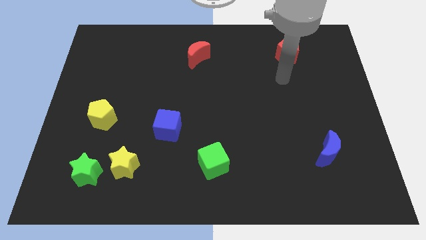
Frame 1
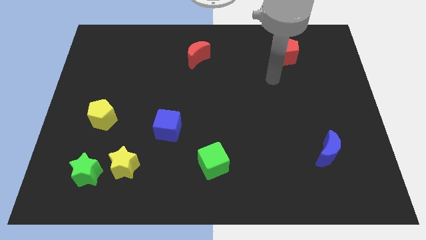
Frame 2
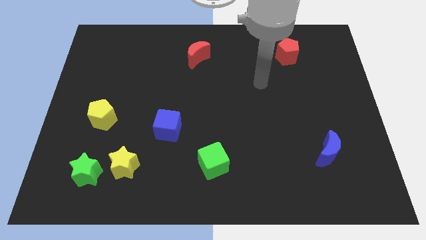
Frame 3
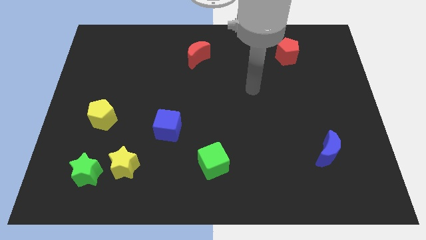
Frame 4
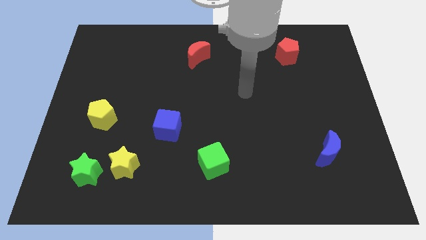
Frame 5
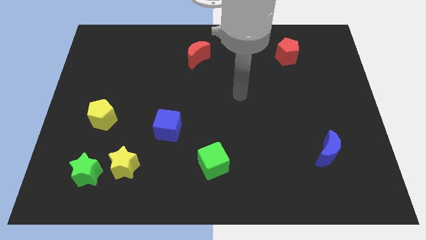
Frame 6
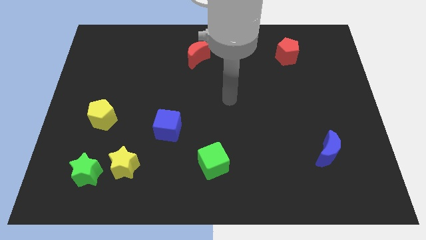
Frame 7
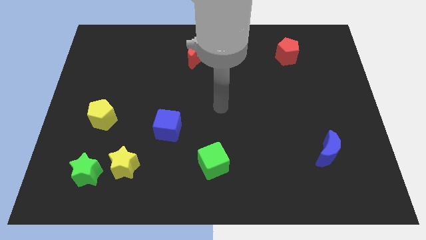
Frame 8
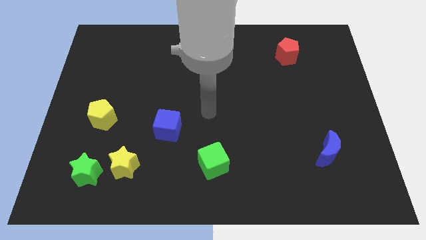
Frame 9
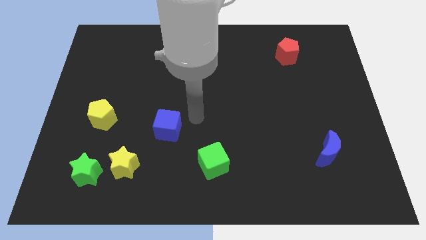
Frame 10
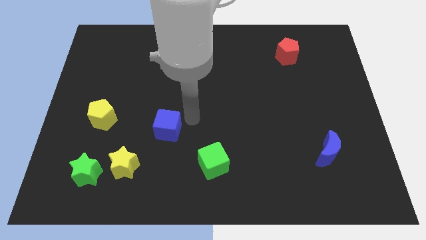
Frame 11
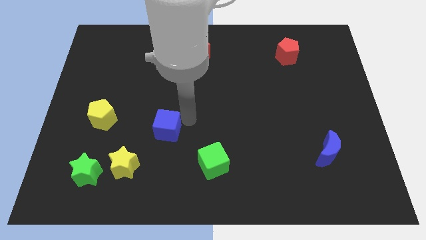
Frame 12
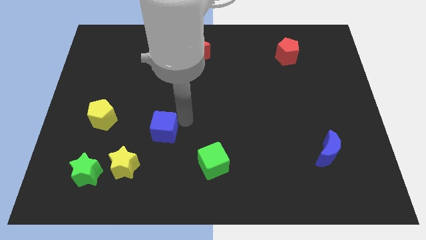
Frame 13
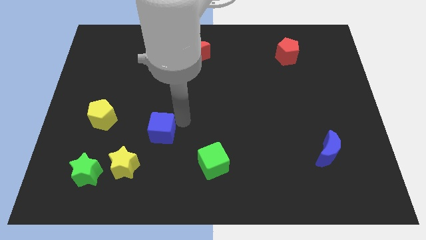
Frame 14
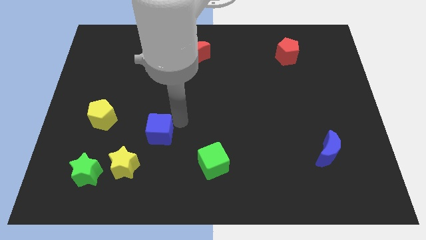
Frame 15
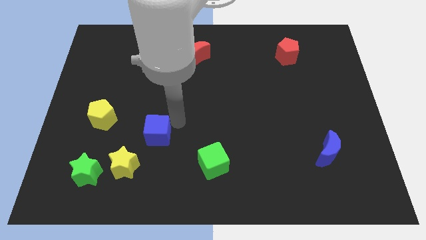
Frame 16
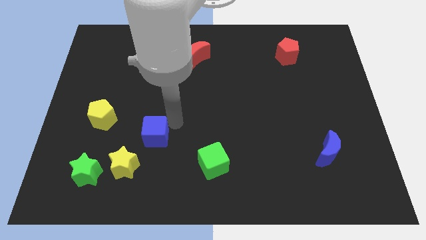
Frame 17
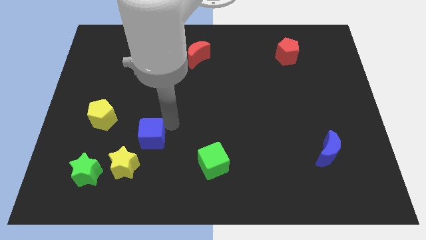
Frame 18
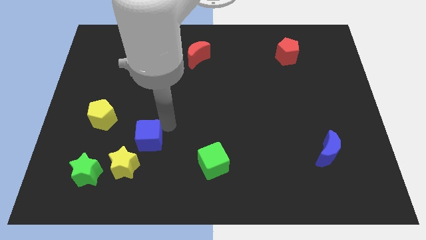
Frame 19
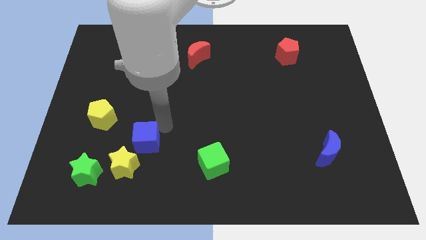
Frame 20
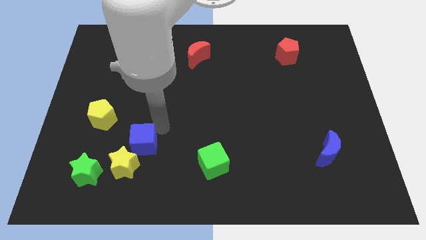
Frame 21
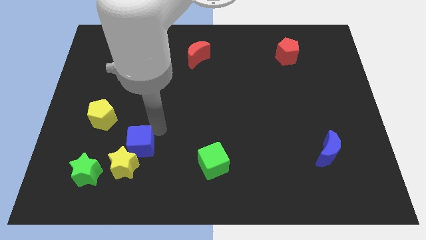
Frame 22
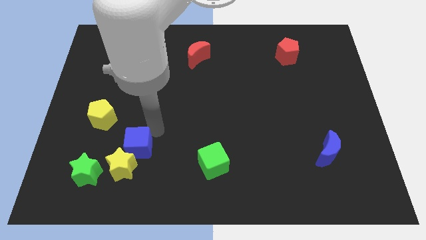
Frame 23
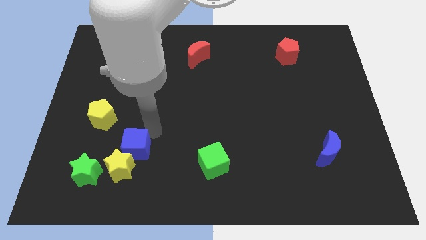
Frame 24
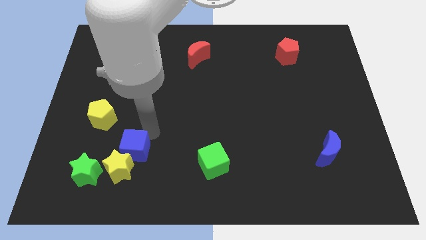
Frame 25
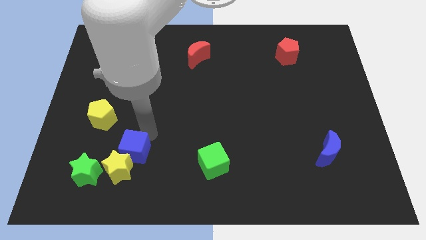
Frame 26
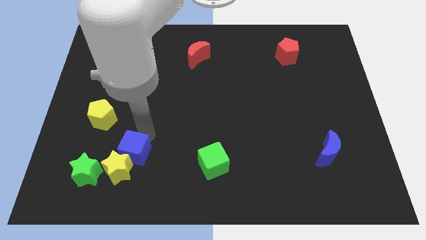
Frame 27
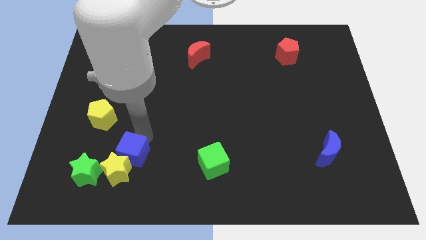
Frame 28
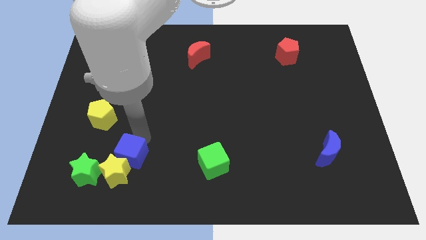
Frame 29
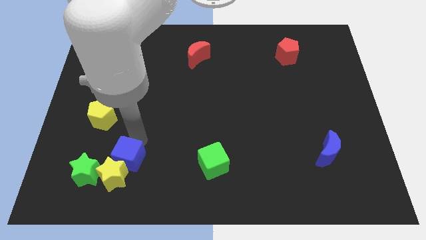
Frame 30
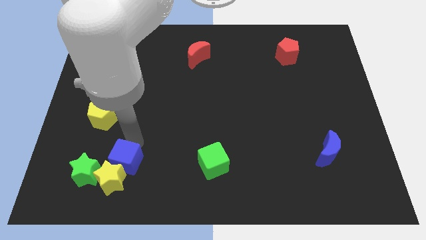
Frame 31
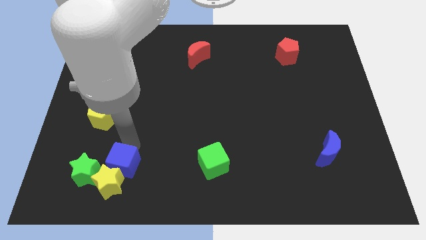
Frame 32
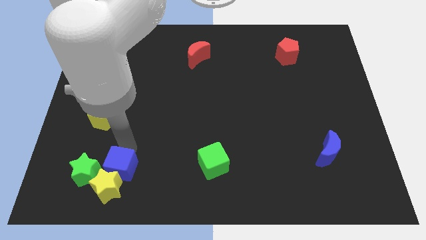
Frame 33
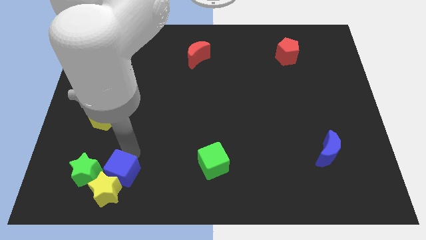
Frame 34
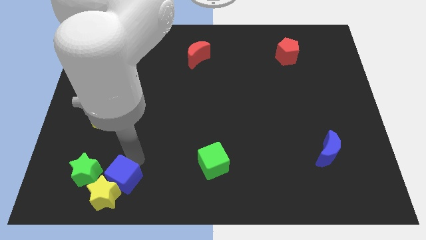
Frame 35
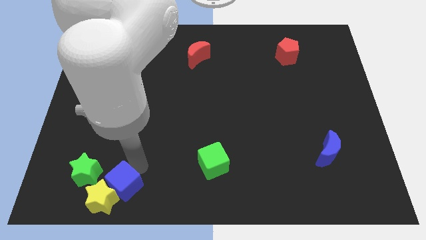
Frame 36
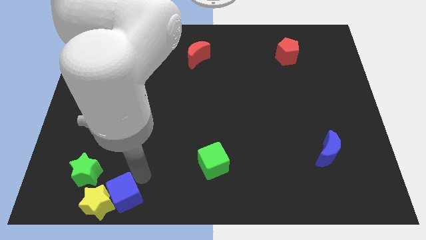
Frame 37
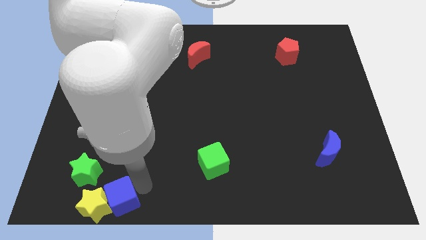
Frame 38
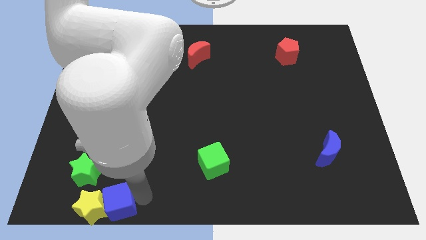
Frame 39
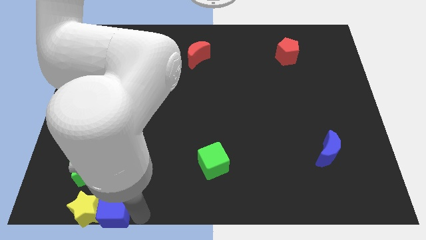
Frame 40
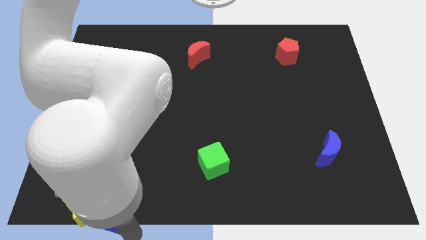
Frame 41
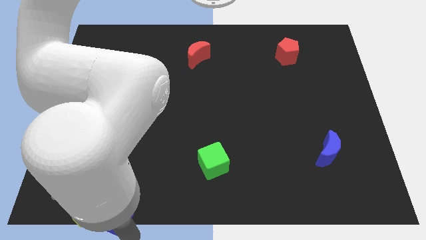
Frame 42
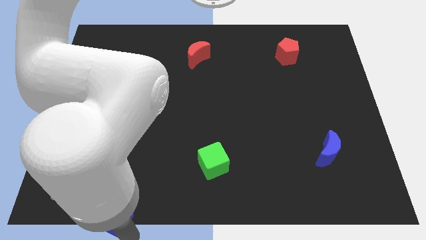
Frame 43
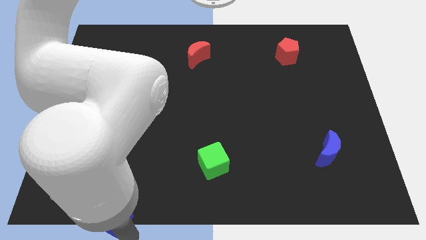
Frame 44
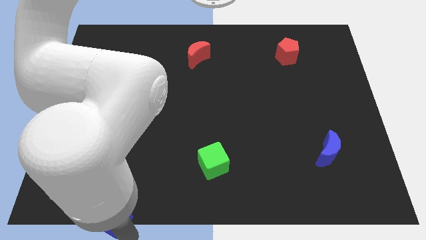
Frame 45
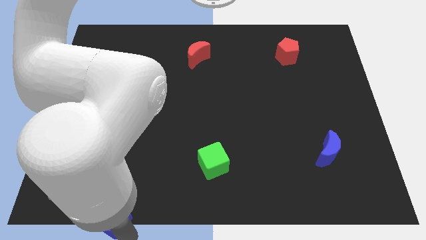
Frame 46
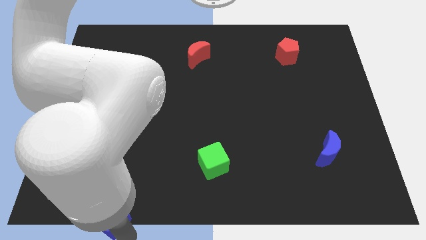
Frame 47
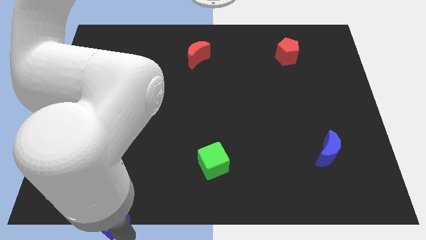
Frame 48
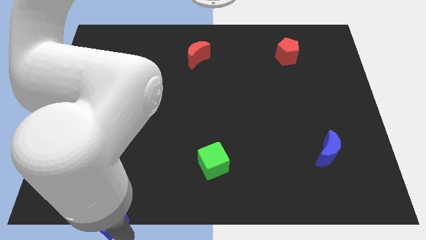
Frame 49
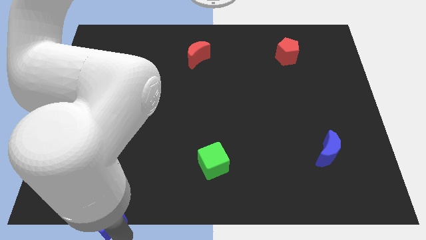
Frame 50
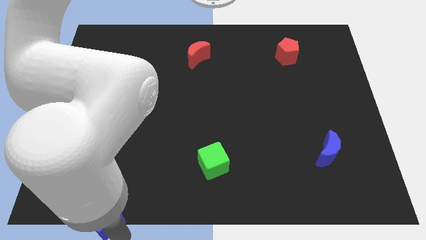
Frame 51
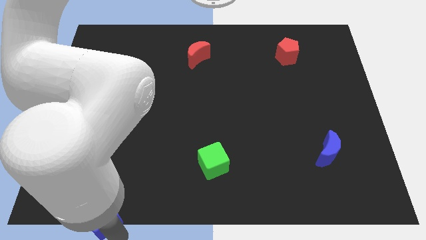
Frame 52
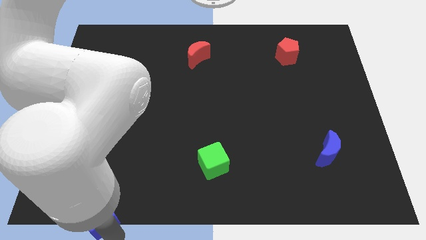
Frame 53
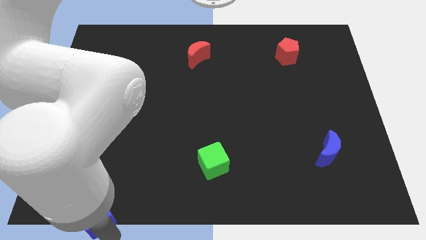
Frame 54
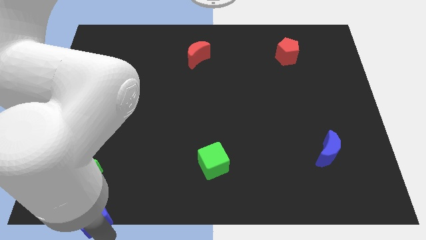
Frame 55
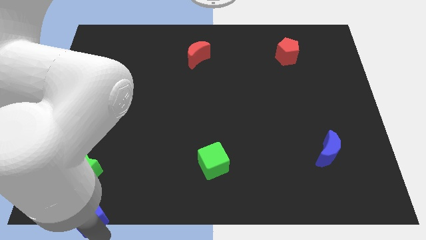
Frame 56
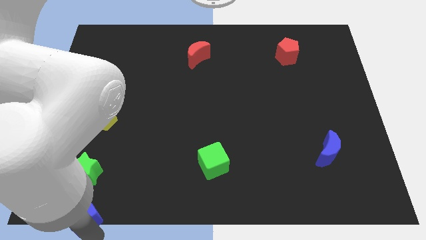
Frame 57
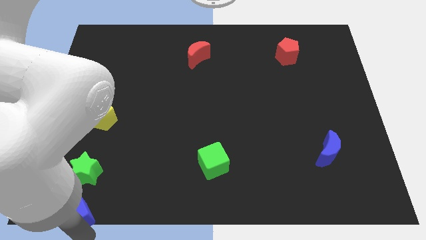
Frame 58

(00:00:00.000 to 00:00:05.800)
move the blue cube to the bottom left corner
